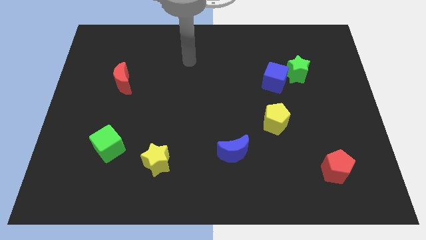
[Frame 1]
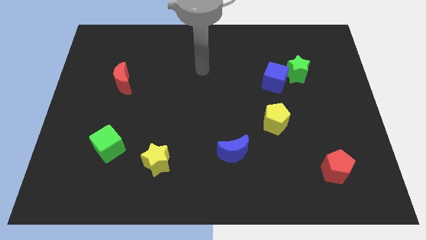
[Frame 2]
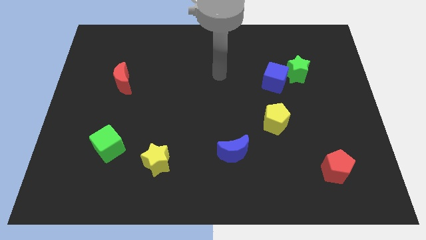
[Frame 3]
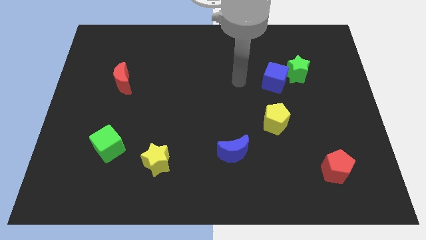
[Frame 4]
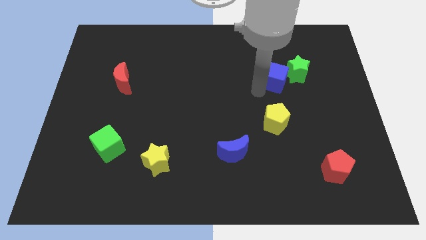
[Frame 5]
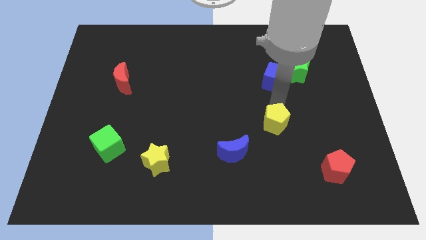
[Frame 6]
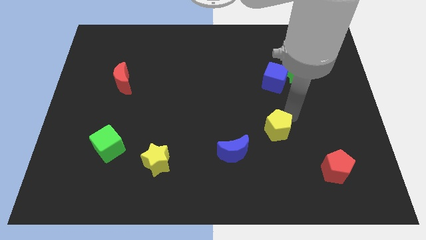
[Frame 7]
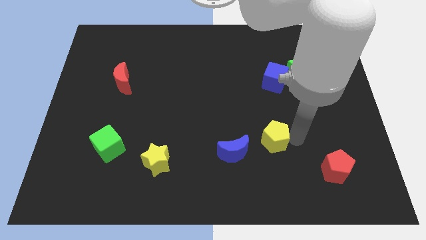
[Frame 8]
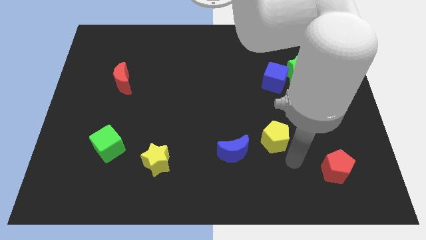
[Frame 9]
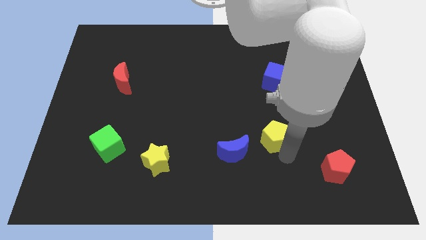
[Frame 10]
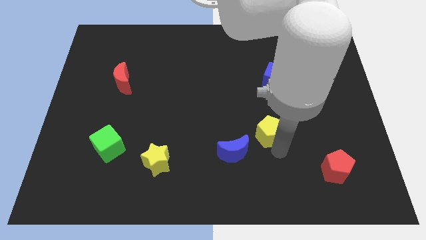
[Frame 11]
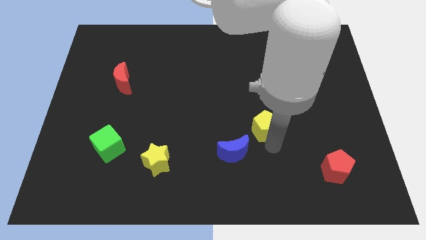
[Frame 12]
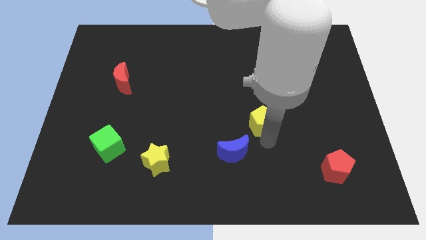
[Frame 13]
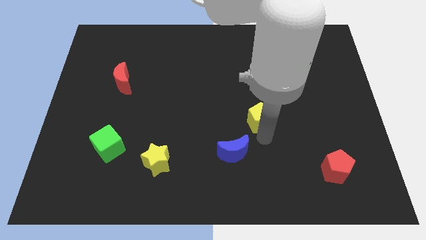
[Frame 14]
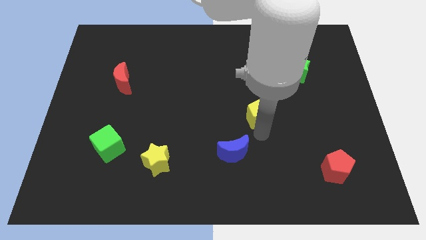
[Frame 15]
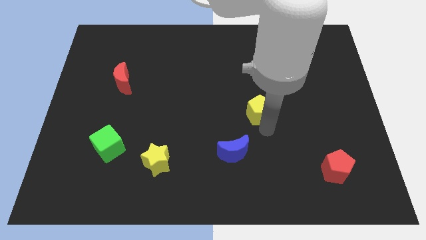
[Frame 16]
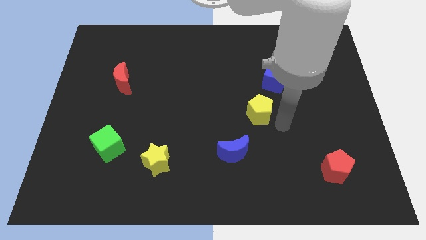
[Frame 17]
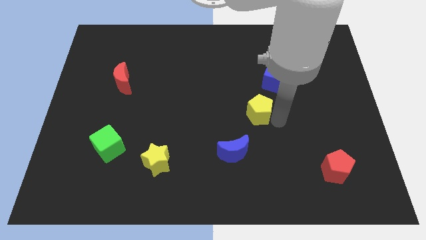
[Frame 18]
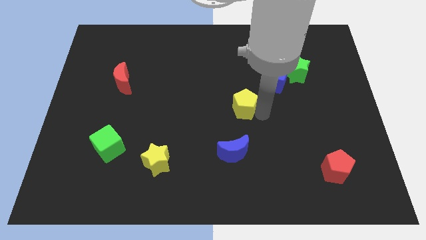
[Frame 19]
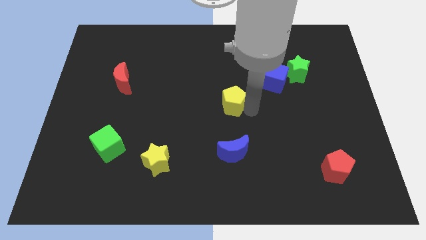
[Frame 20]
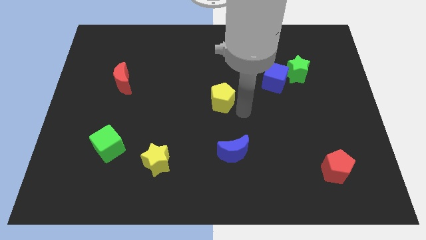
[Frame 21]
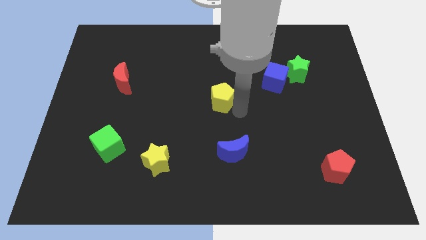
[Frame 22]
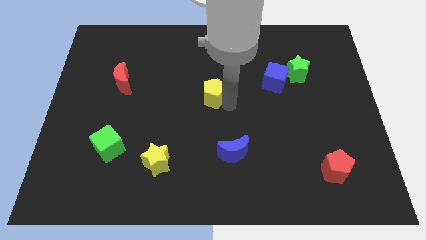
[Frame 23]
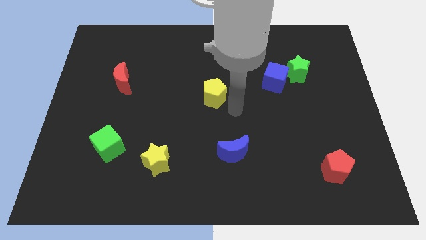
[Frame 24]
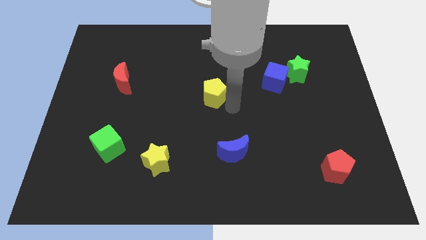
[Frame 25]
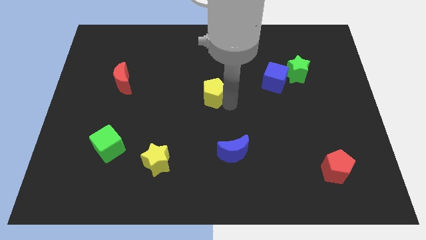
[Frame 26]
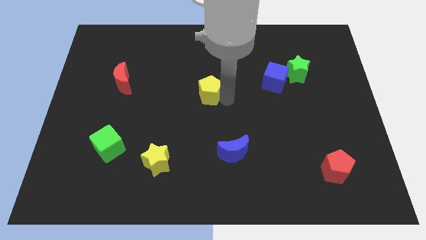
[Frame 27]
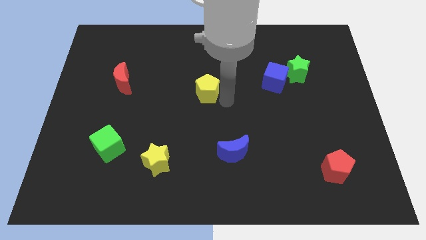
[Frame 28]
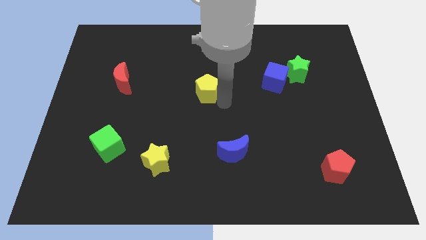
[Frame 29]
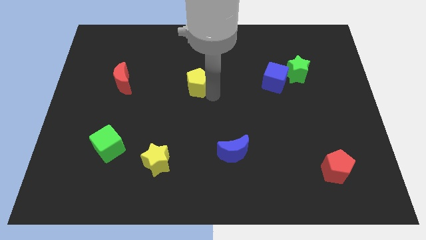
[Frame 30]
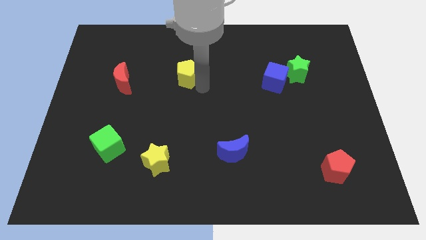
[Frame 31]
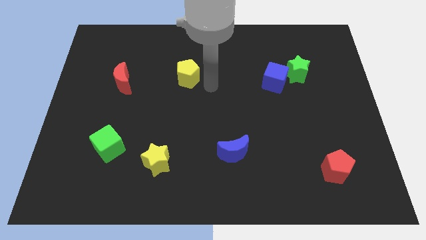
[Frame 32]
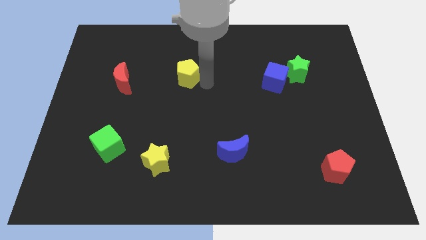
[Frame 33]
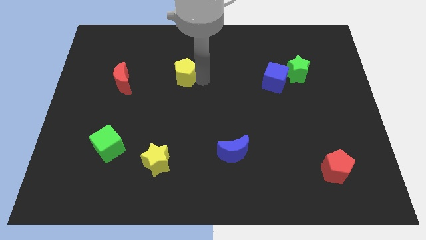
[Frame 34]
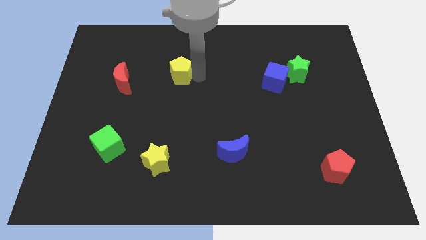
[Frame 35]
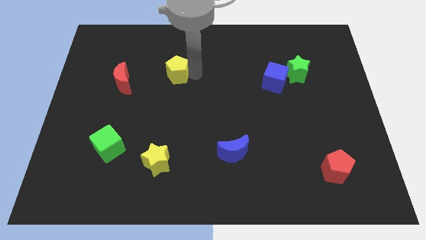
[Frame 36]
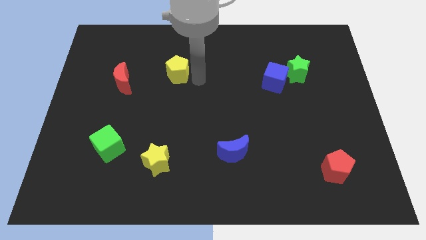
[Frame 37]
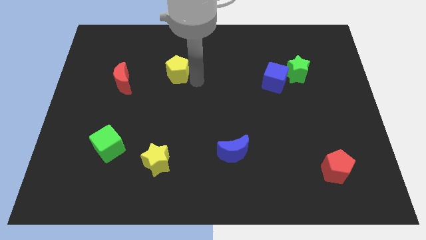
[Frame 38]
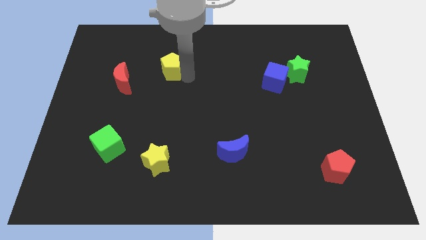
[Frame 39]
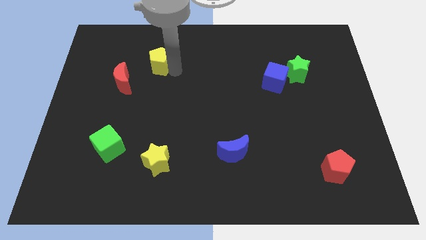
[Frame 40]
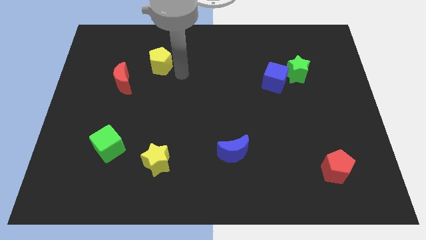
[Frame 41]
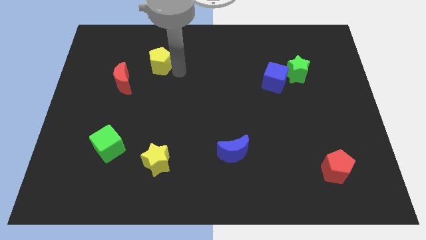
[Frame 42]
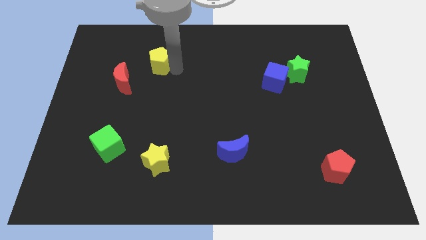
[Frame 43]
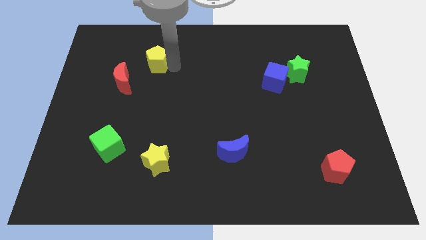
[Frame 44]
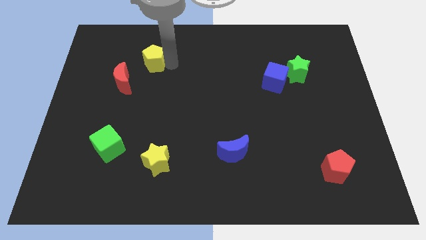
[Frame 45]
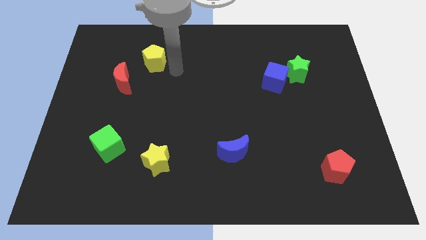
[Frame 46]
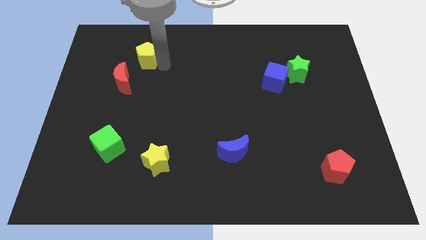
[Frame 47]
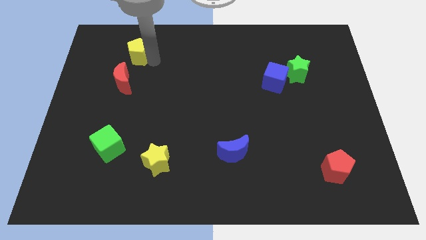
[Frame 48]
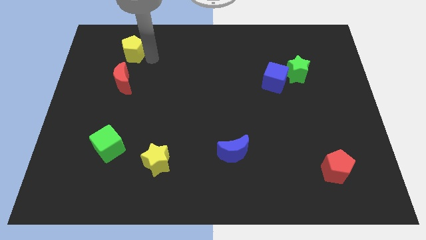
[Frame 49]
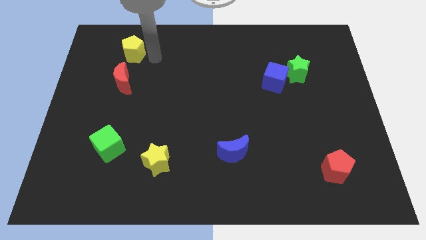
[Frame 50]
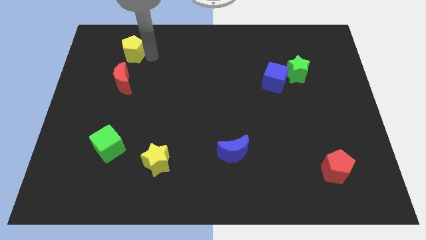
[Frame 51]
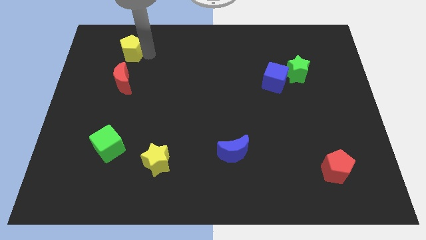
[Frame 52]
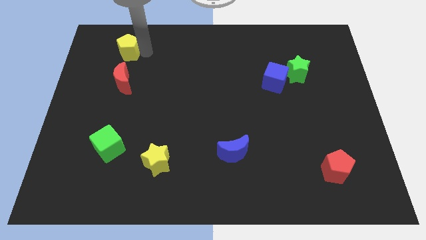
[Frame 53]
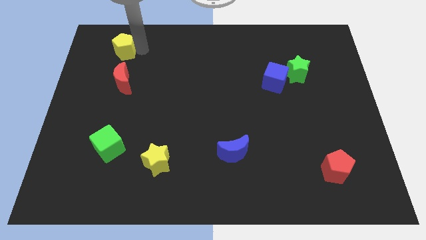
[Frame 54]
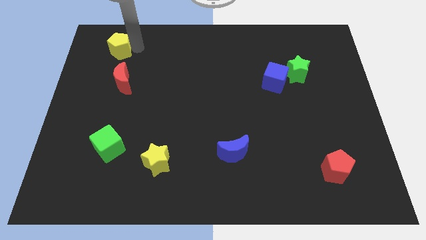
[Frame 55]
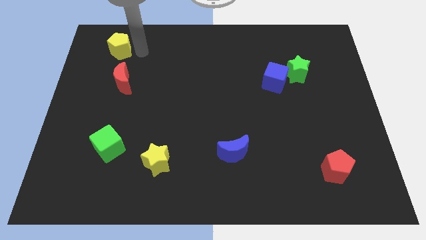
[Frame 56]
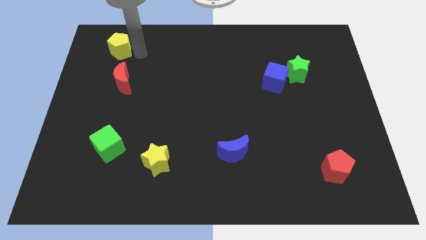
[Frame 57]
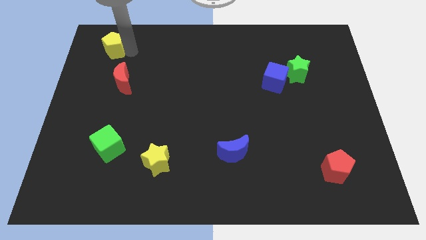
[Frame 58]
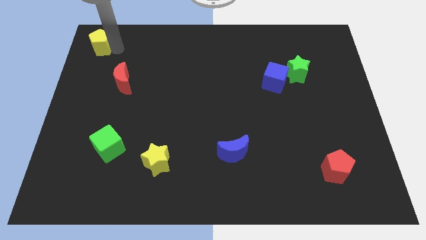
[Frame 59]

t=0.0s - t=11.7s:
put the yellow pentagon to the top left of the board

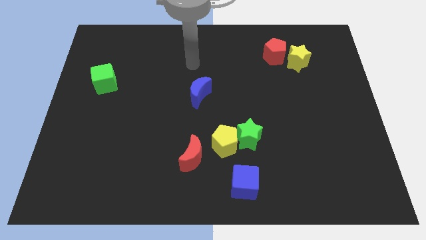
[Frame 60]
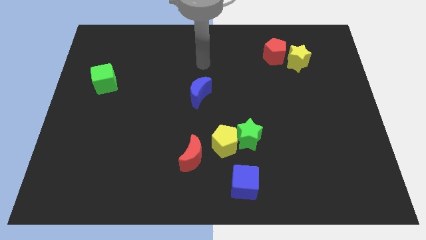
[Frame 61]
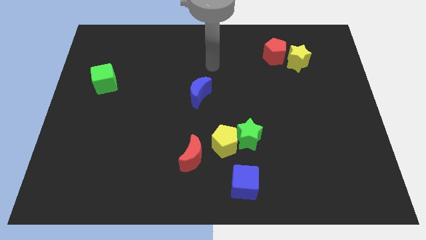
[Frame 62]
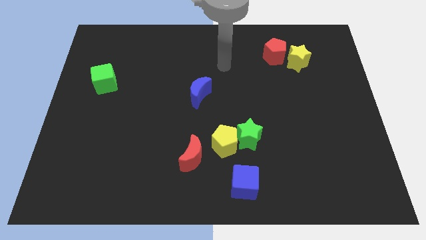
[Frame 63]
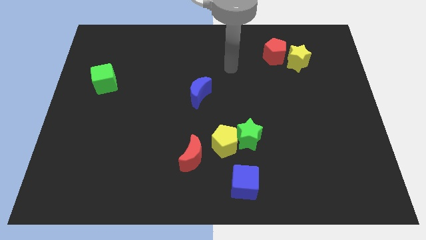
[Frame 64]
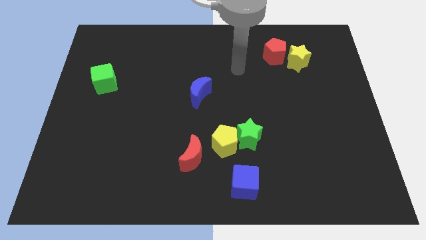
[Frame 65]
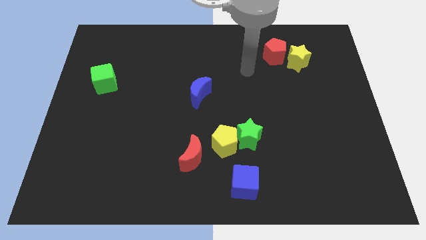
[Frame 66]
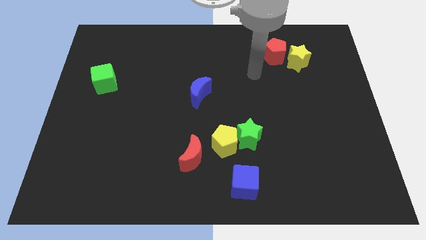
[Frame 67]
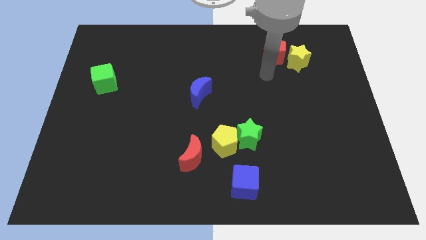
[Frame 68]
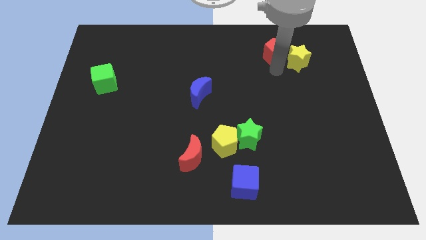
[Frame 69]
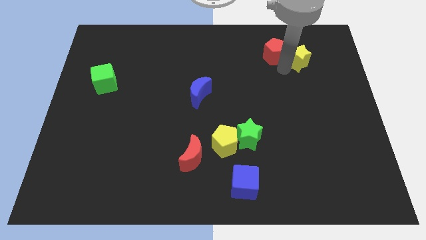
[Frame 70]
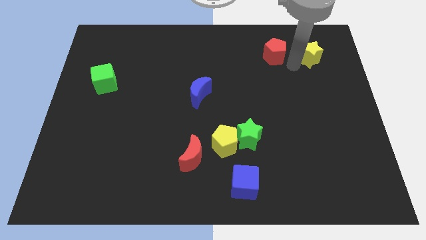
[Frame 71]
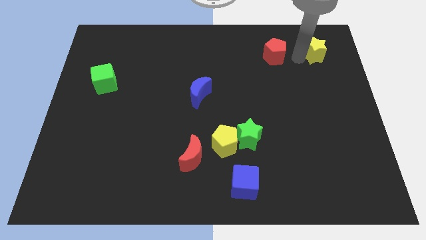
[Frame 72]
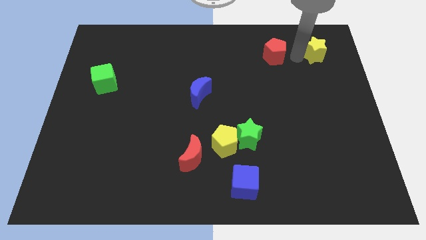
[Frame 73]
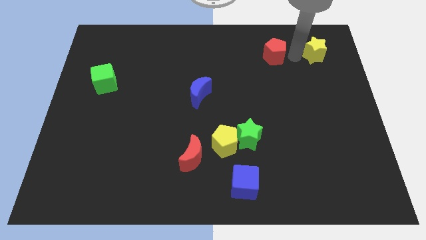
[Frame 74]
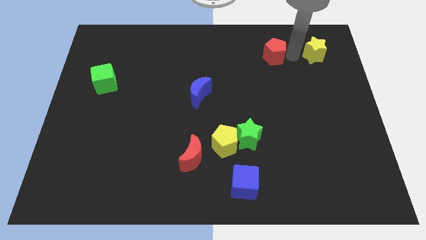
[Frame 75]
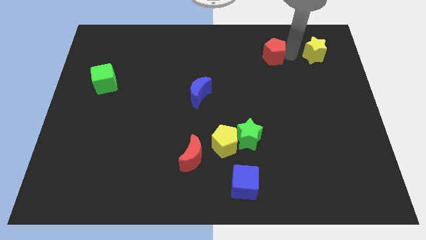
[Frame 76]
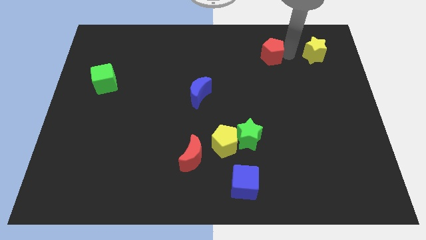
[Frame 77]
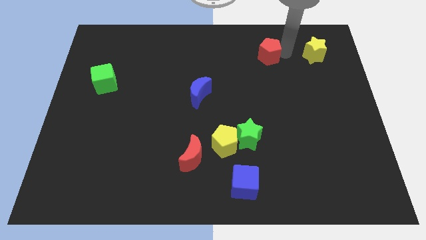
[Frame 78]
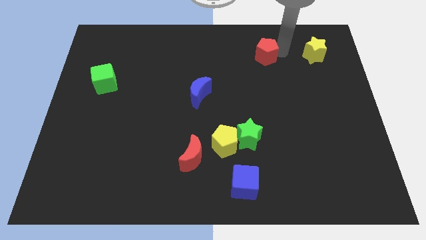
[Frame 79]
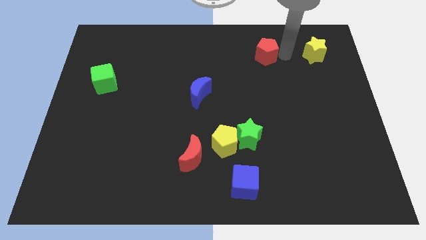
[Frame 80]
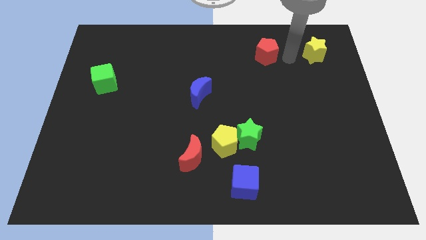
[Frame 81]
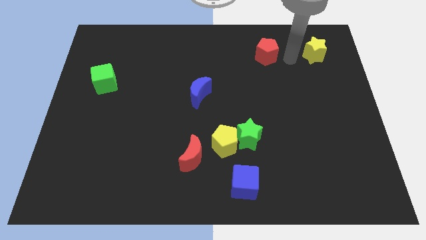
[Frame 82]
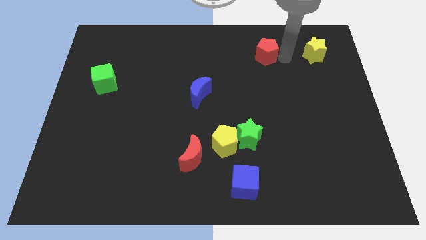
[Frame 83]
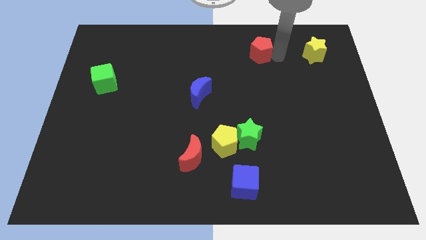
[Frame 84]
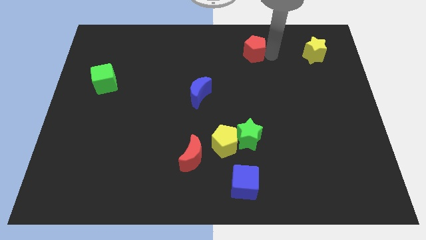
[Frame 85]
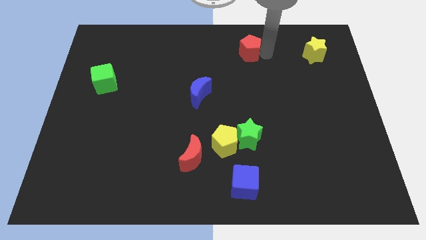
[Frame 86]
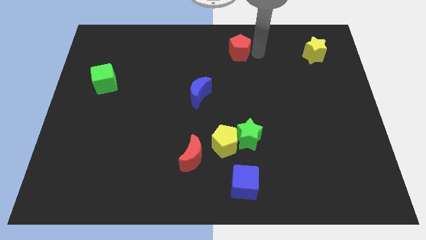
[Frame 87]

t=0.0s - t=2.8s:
move the red pentagon to the towards your base
